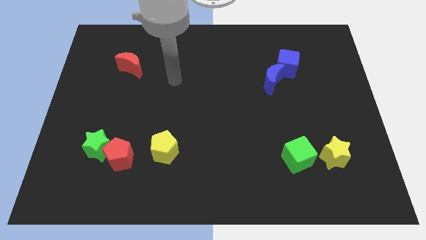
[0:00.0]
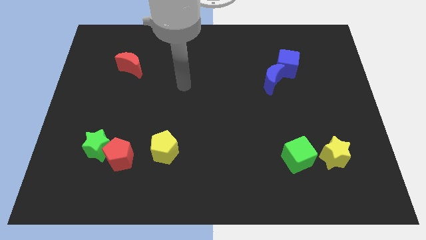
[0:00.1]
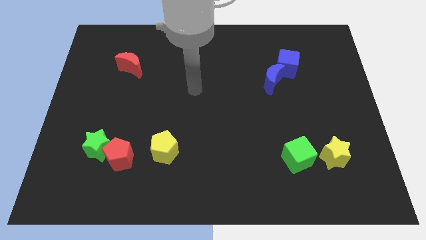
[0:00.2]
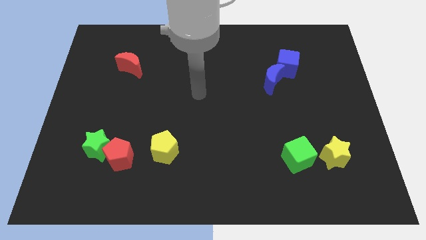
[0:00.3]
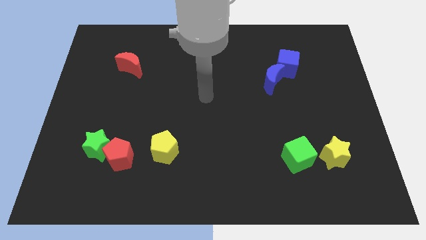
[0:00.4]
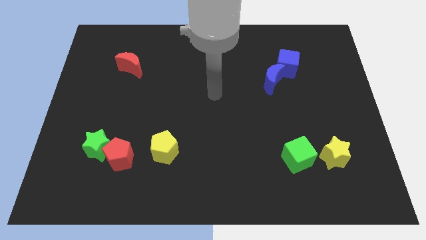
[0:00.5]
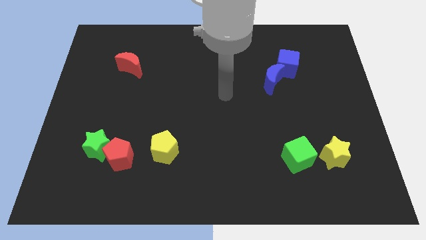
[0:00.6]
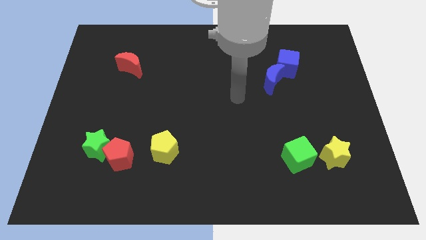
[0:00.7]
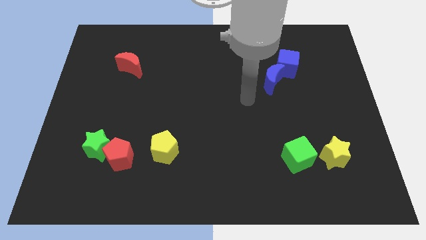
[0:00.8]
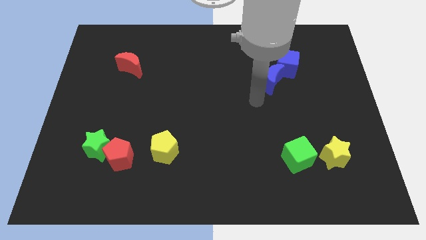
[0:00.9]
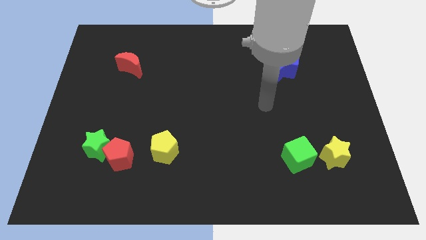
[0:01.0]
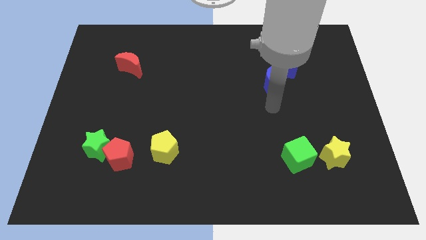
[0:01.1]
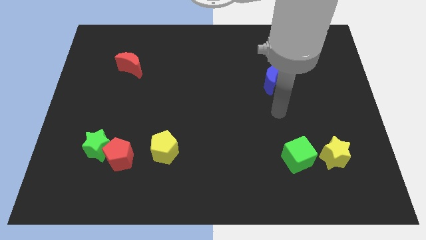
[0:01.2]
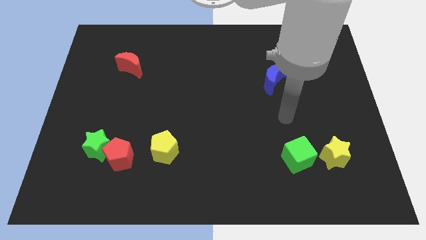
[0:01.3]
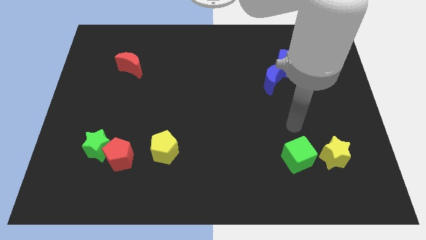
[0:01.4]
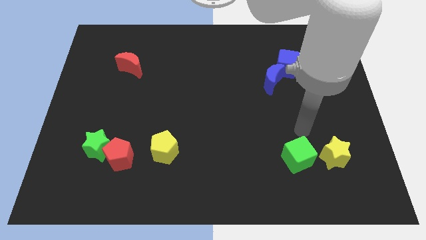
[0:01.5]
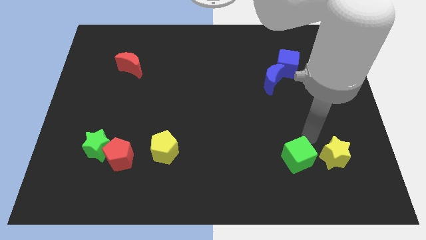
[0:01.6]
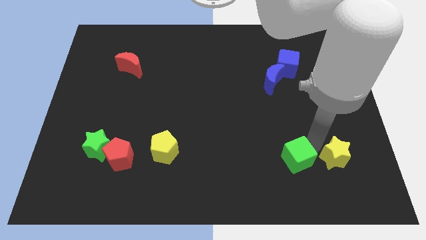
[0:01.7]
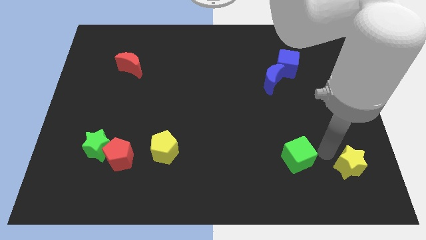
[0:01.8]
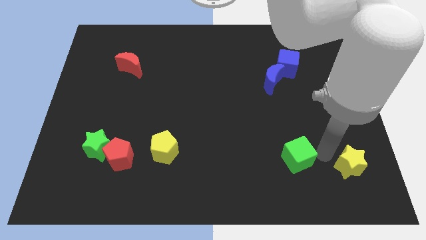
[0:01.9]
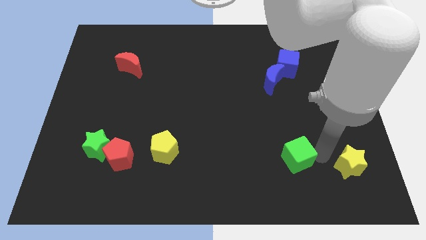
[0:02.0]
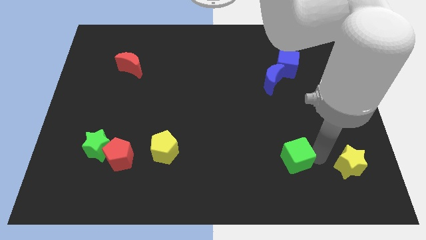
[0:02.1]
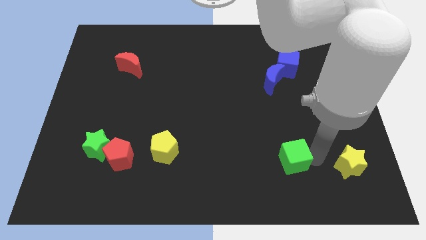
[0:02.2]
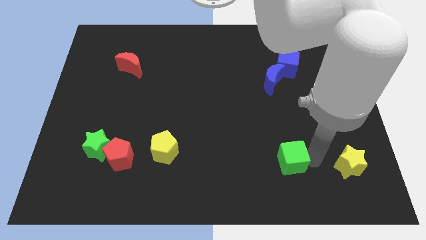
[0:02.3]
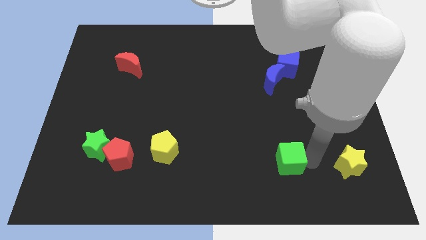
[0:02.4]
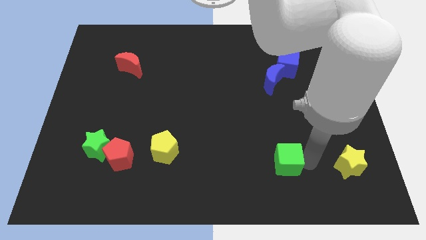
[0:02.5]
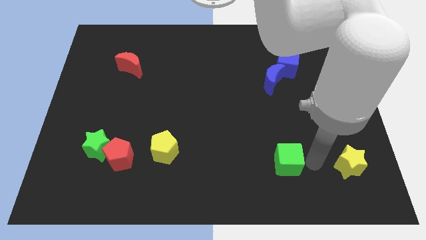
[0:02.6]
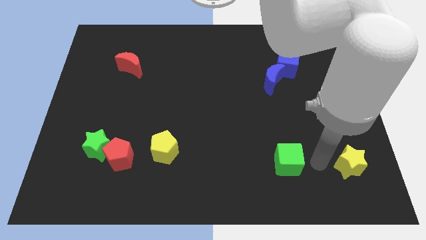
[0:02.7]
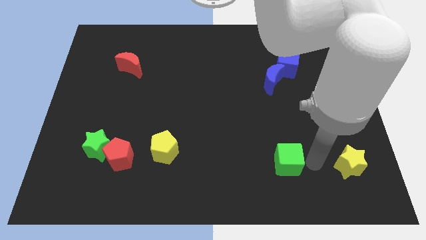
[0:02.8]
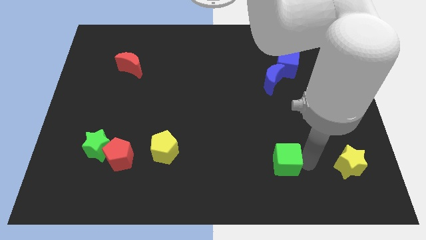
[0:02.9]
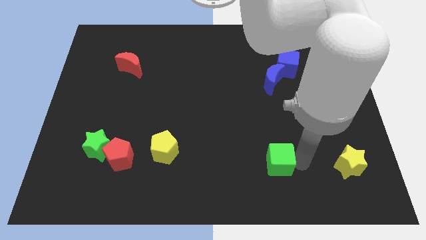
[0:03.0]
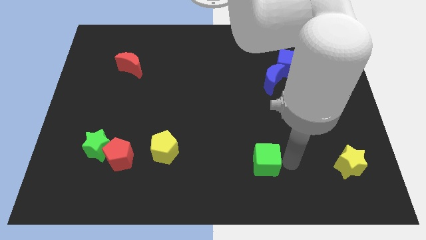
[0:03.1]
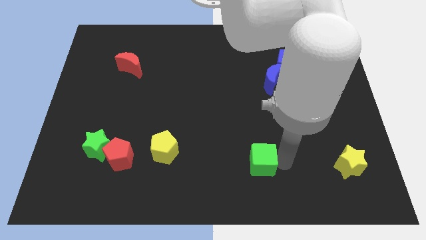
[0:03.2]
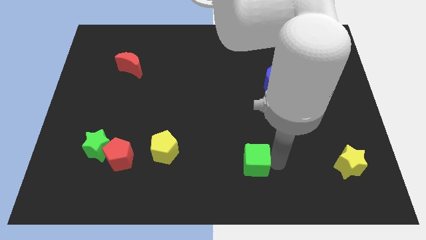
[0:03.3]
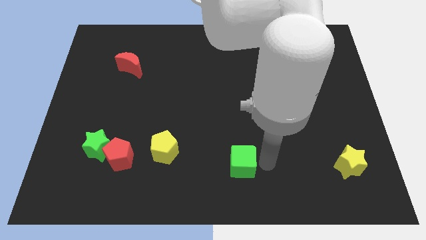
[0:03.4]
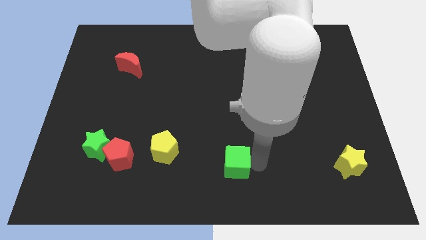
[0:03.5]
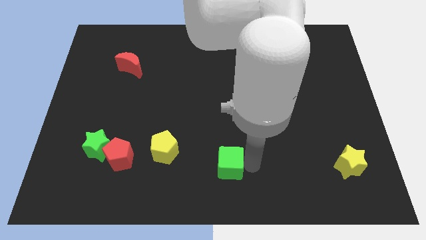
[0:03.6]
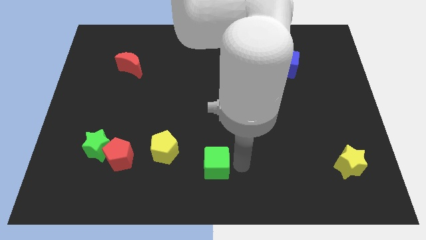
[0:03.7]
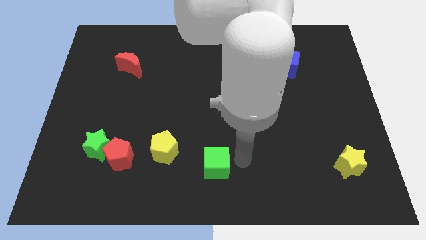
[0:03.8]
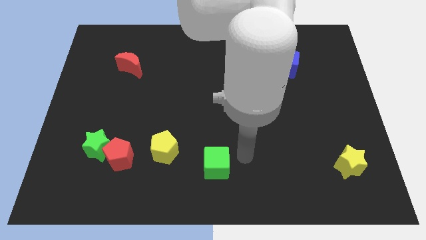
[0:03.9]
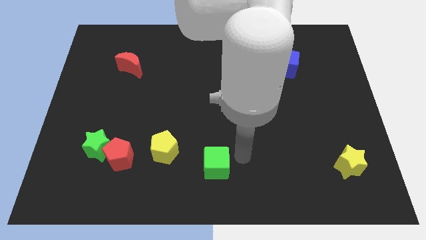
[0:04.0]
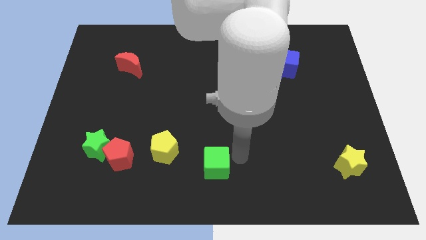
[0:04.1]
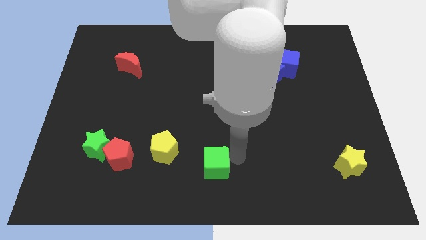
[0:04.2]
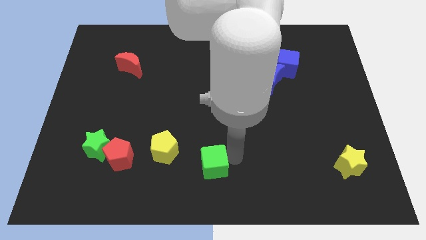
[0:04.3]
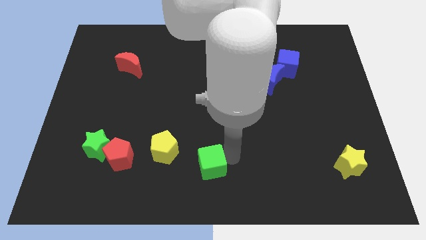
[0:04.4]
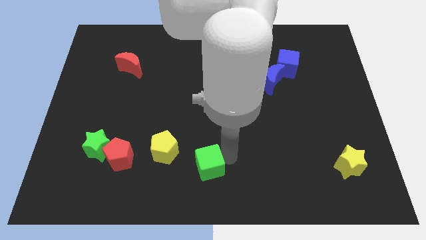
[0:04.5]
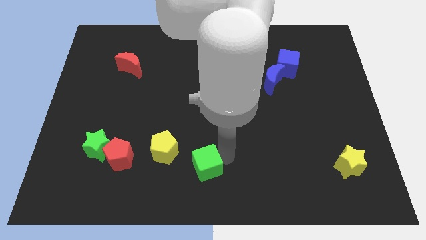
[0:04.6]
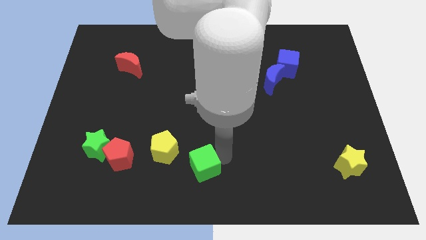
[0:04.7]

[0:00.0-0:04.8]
move the green cube to the left

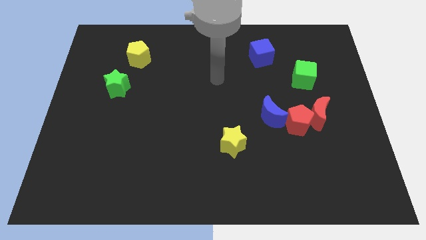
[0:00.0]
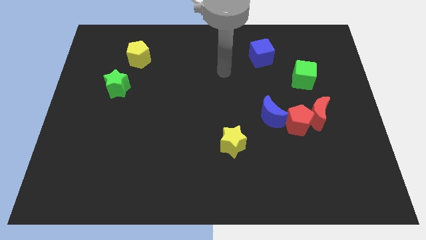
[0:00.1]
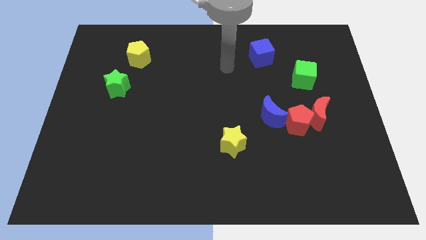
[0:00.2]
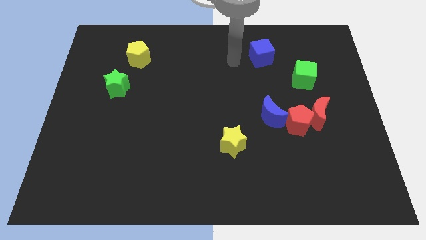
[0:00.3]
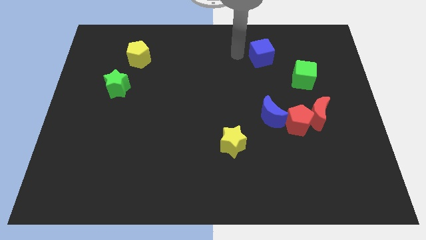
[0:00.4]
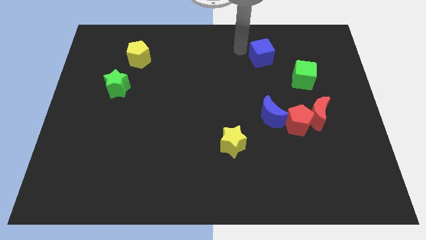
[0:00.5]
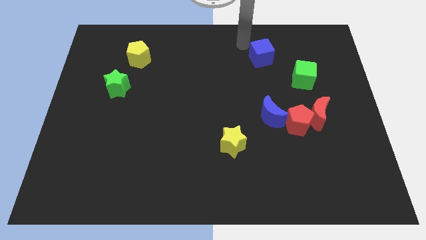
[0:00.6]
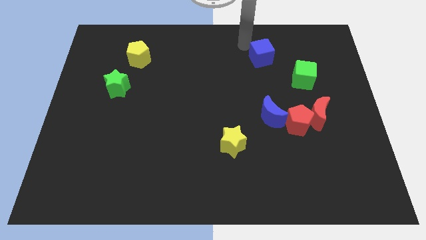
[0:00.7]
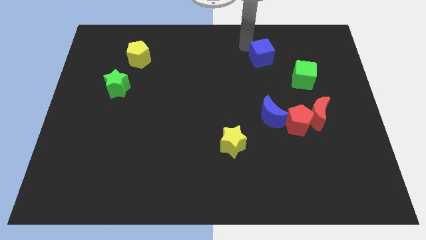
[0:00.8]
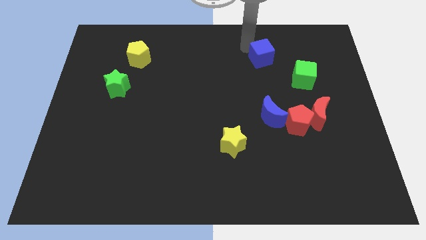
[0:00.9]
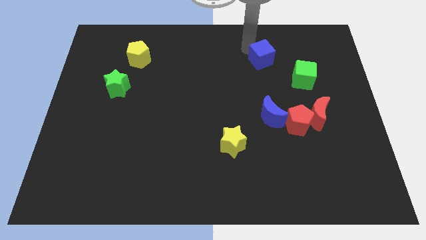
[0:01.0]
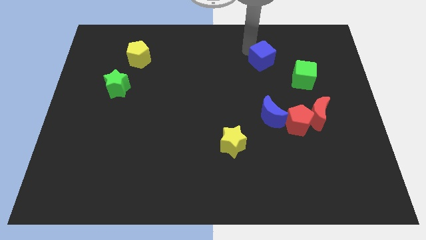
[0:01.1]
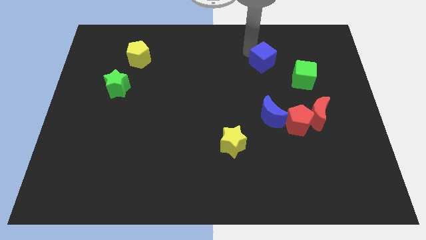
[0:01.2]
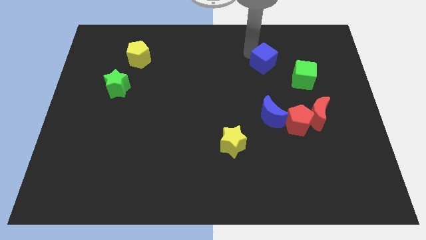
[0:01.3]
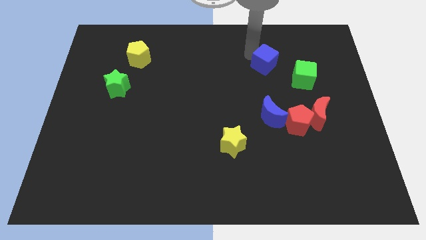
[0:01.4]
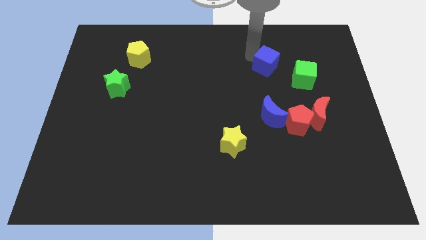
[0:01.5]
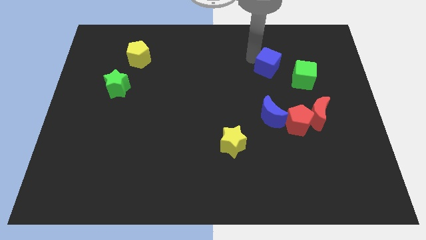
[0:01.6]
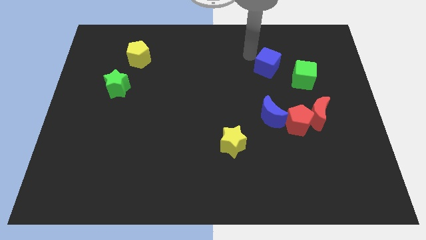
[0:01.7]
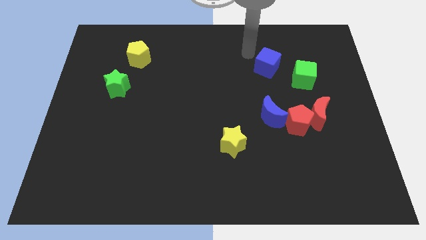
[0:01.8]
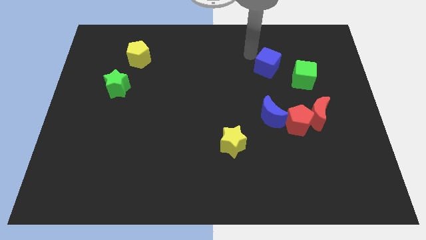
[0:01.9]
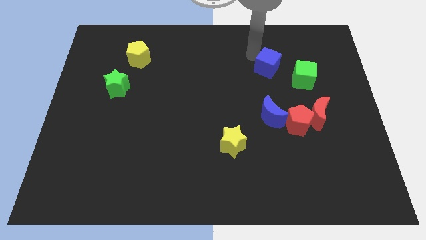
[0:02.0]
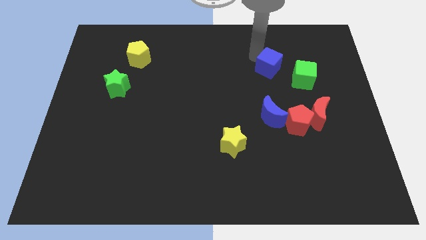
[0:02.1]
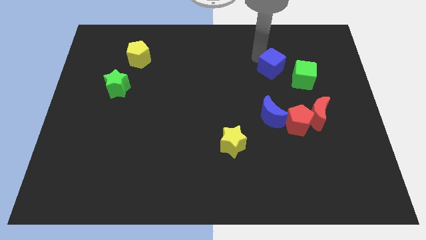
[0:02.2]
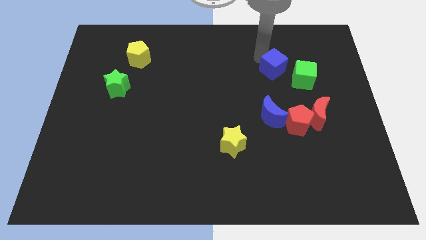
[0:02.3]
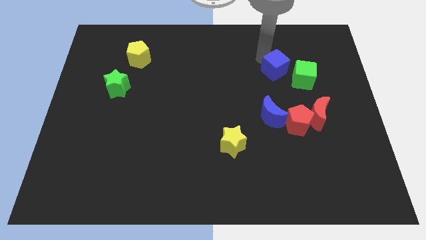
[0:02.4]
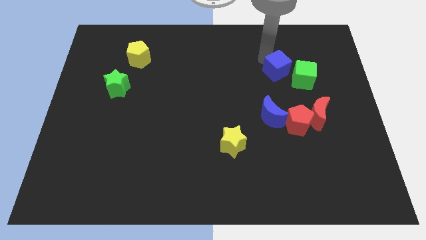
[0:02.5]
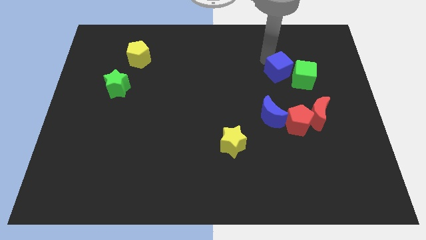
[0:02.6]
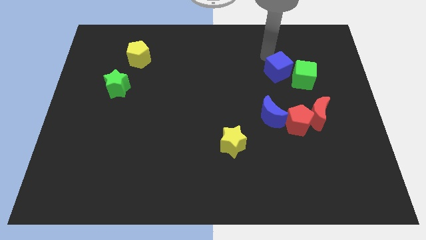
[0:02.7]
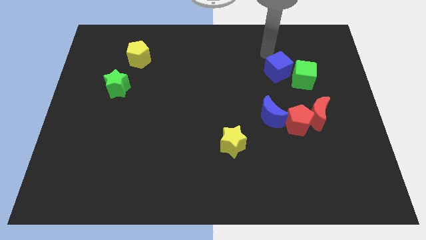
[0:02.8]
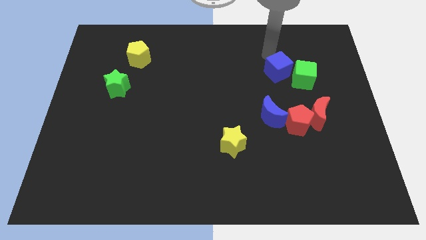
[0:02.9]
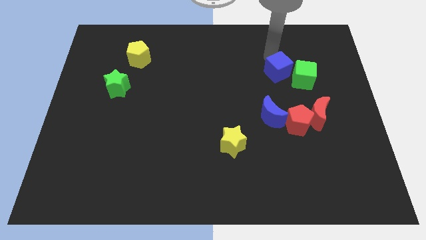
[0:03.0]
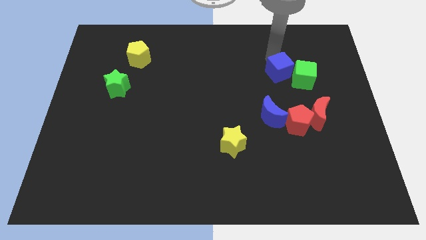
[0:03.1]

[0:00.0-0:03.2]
move the blue cube down and then to the right somewhat

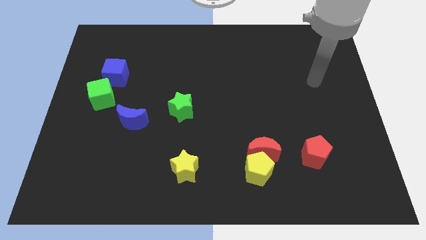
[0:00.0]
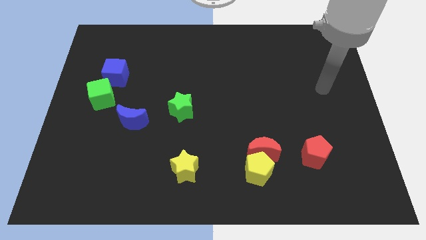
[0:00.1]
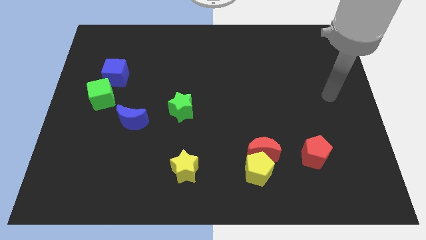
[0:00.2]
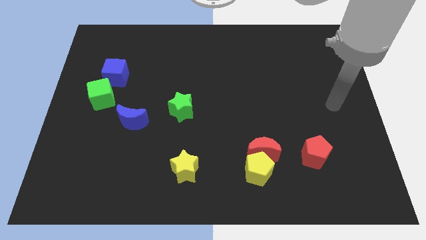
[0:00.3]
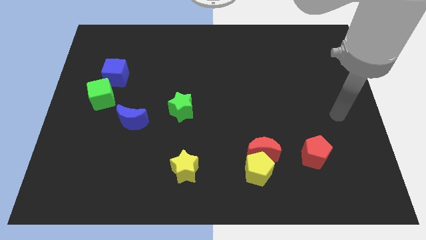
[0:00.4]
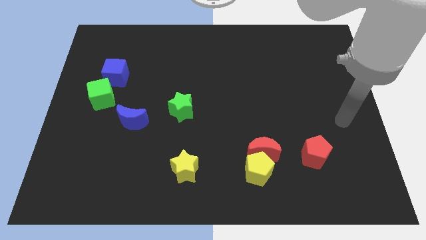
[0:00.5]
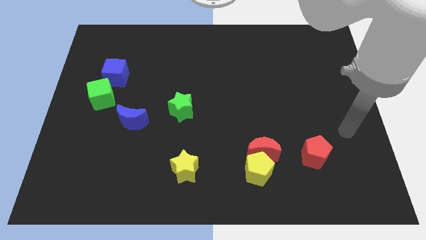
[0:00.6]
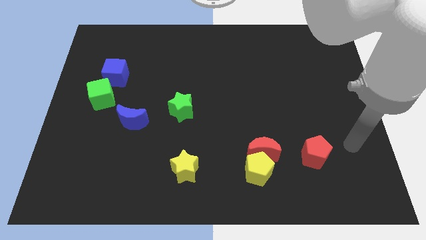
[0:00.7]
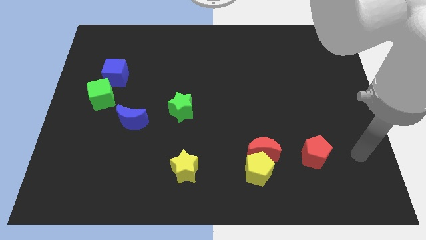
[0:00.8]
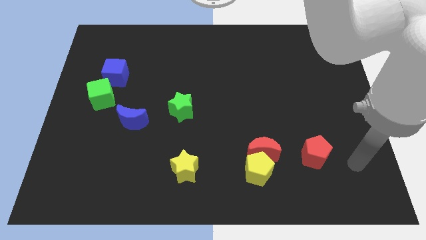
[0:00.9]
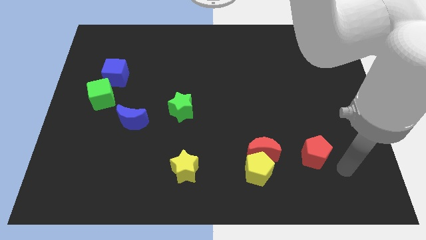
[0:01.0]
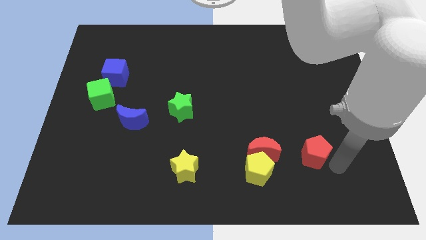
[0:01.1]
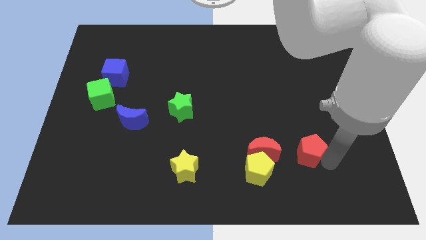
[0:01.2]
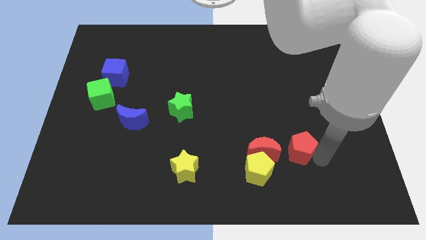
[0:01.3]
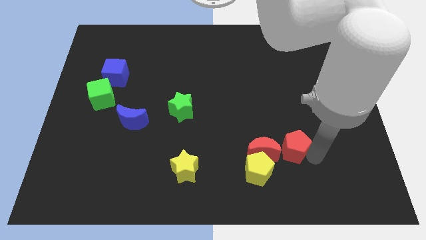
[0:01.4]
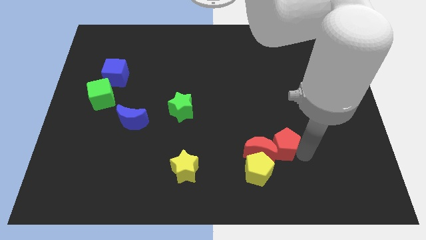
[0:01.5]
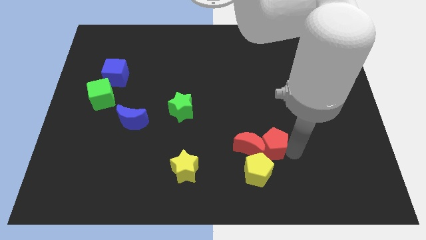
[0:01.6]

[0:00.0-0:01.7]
push the red pentagon a little bit to the left
